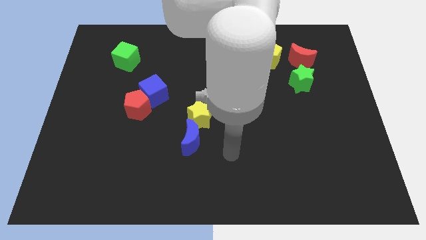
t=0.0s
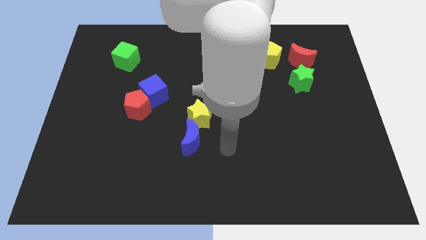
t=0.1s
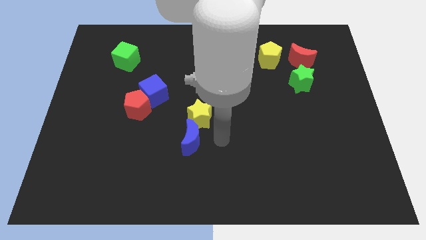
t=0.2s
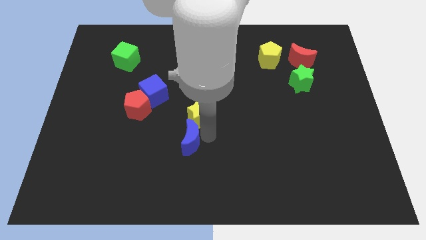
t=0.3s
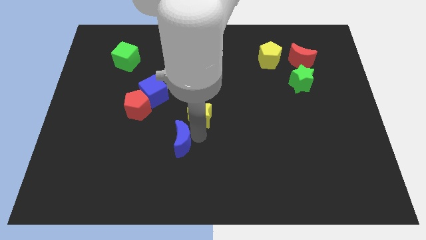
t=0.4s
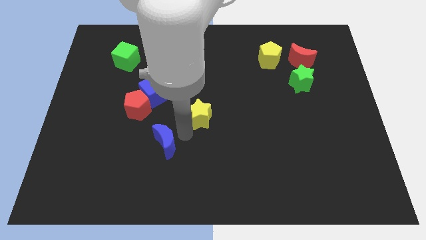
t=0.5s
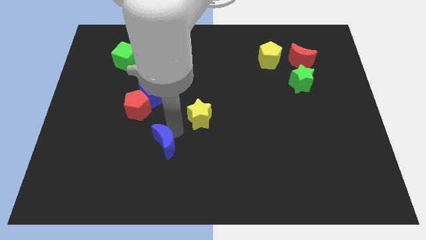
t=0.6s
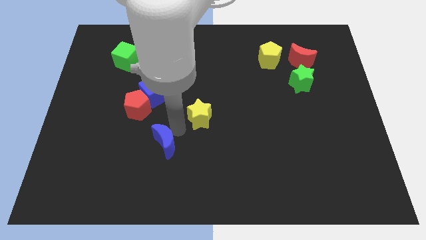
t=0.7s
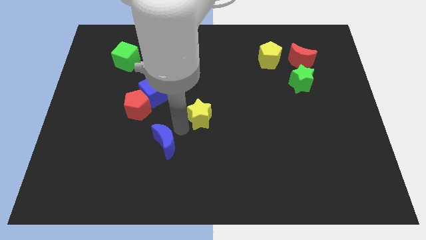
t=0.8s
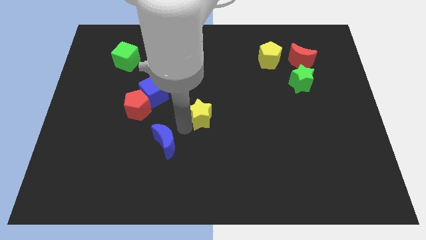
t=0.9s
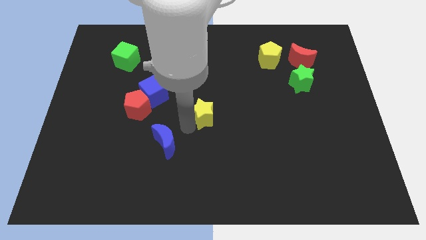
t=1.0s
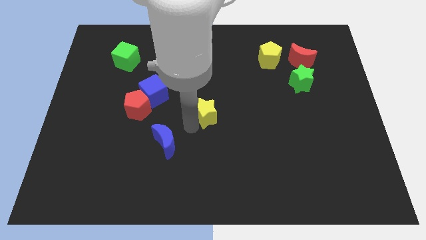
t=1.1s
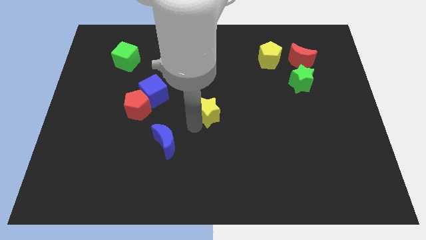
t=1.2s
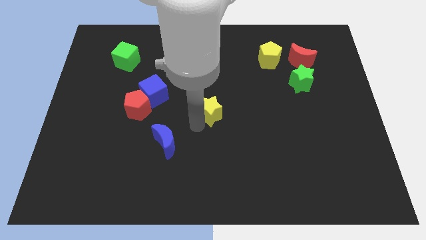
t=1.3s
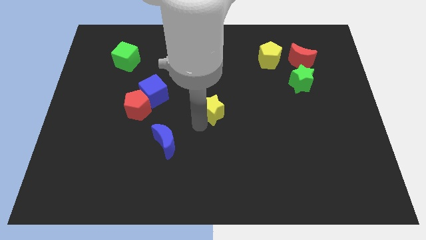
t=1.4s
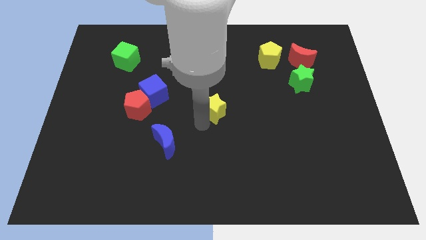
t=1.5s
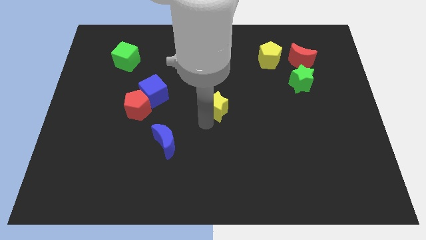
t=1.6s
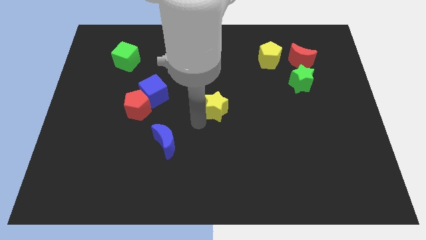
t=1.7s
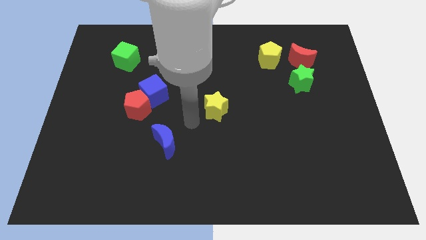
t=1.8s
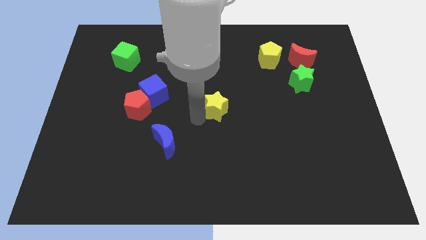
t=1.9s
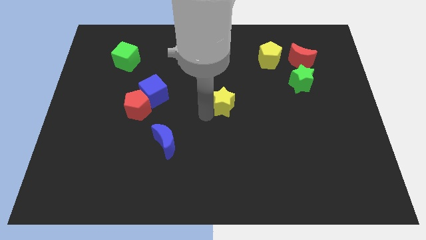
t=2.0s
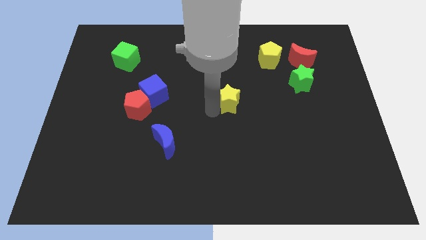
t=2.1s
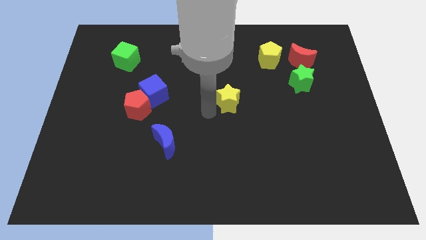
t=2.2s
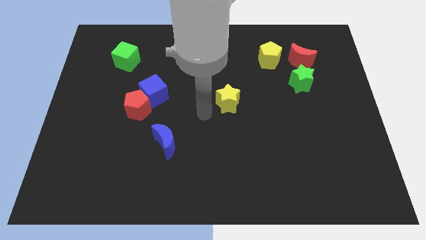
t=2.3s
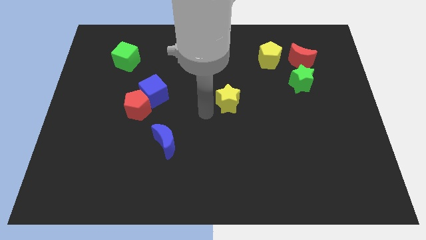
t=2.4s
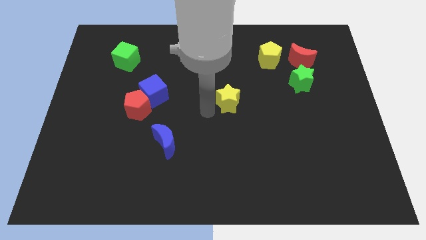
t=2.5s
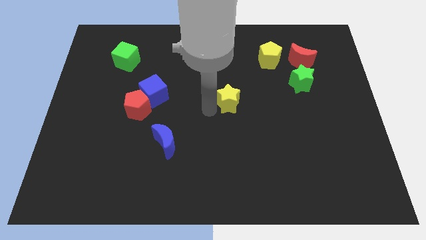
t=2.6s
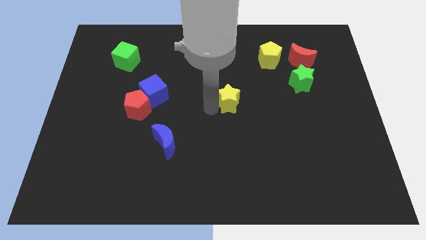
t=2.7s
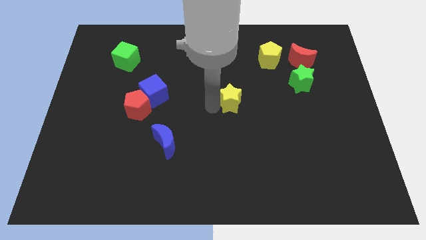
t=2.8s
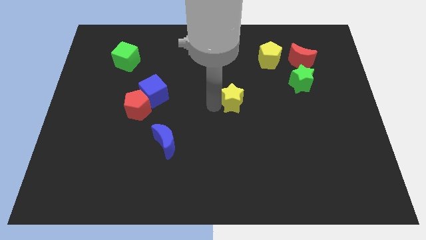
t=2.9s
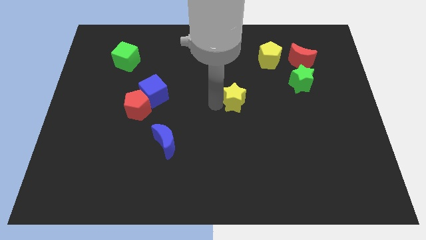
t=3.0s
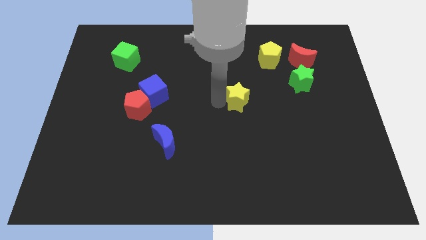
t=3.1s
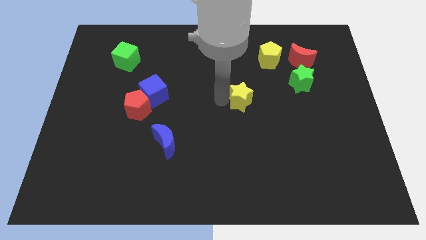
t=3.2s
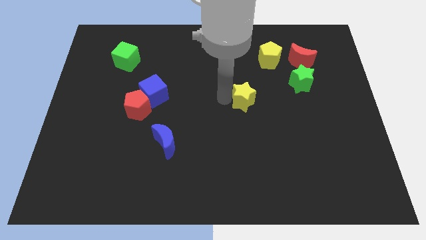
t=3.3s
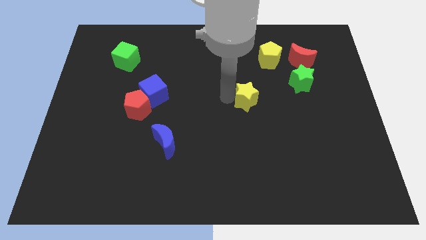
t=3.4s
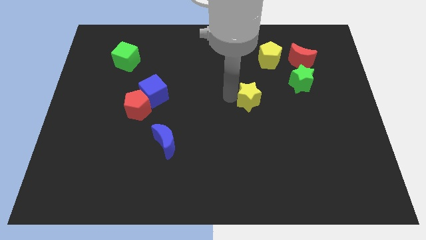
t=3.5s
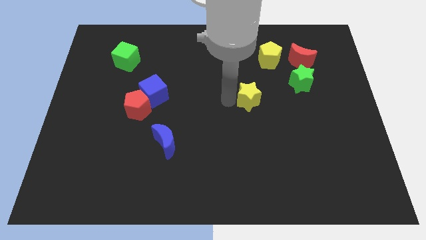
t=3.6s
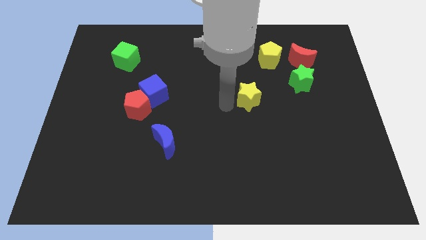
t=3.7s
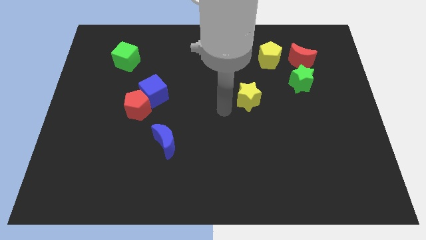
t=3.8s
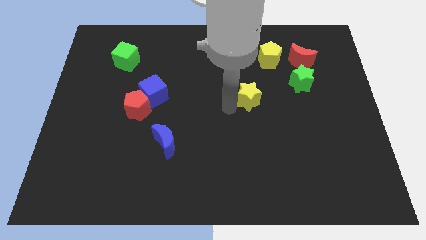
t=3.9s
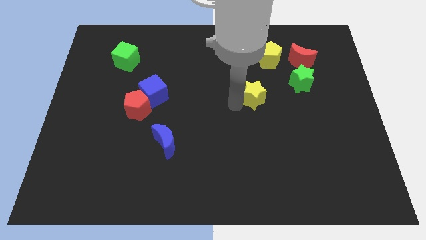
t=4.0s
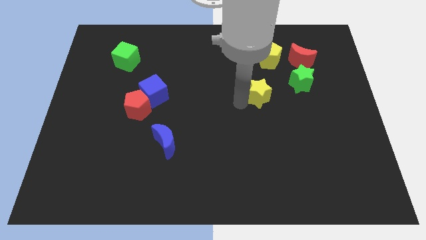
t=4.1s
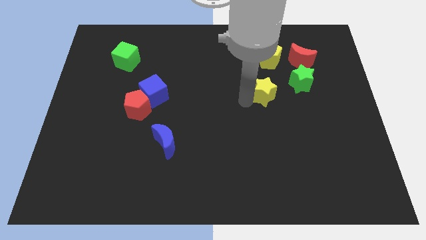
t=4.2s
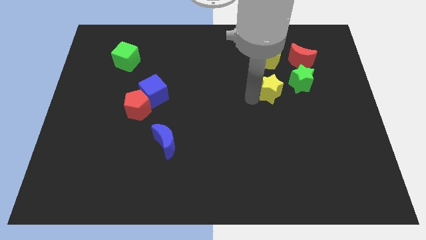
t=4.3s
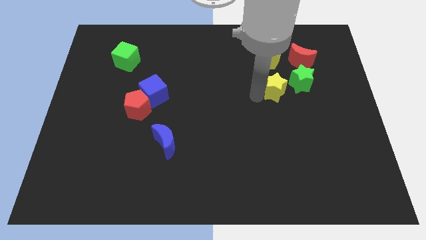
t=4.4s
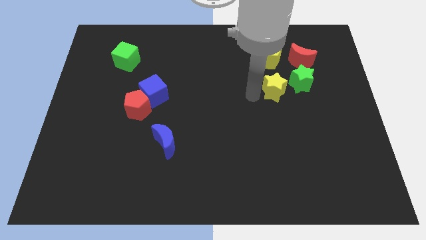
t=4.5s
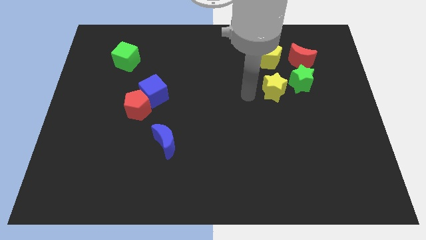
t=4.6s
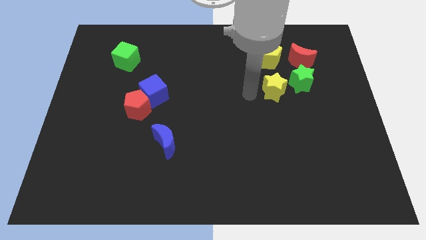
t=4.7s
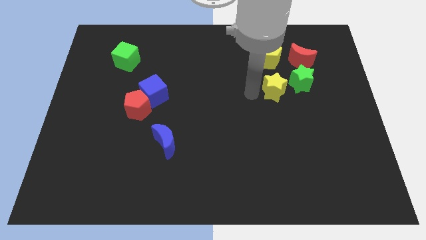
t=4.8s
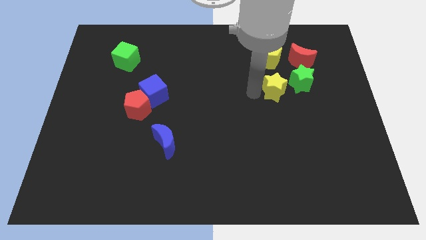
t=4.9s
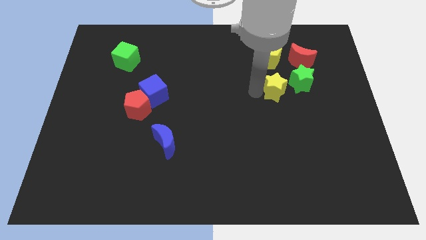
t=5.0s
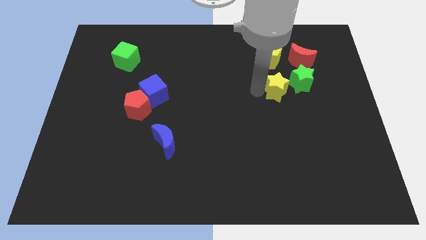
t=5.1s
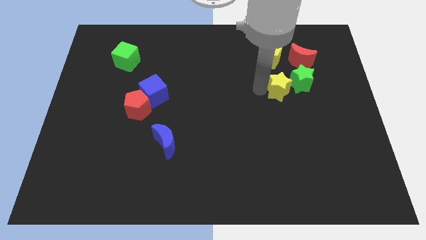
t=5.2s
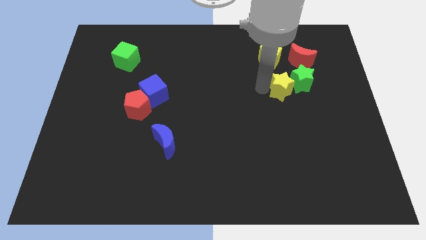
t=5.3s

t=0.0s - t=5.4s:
push the yellow star towards the green star

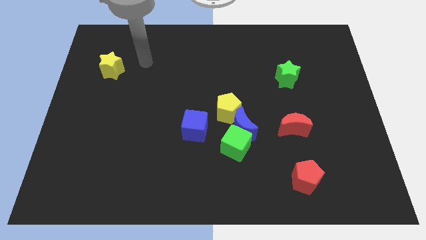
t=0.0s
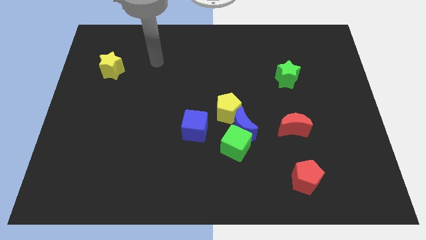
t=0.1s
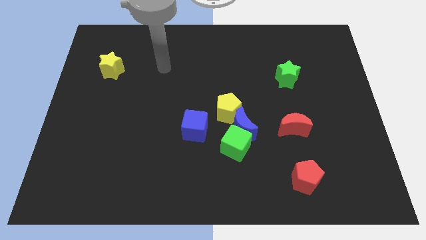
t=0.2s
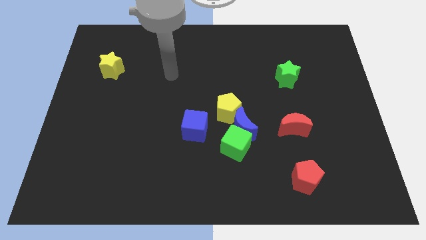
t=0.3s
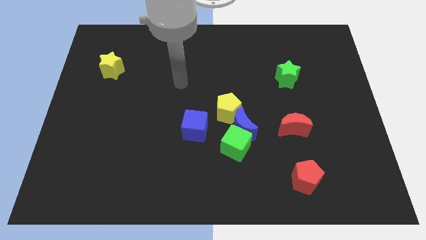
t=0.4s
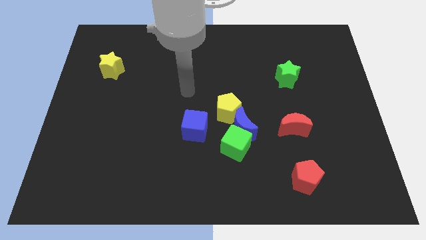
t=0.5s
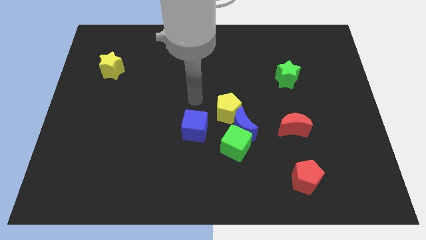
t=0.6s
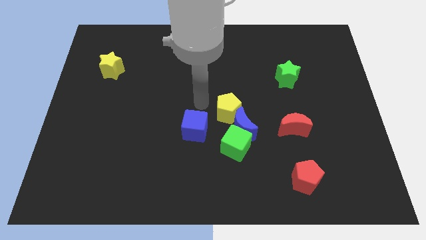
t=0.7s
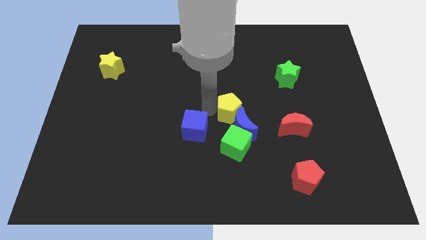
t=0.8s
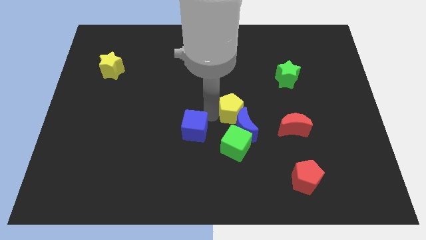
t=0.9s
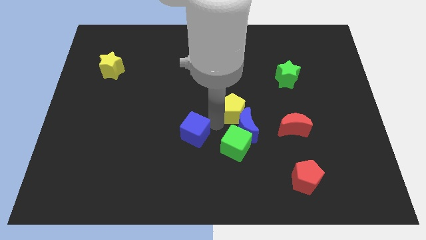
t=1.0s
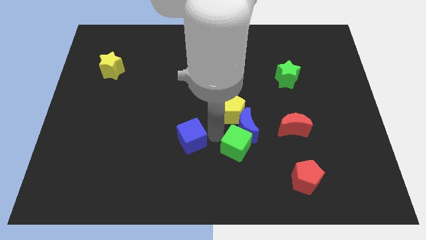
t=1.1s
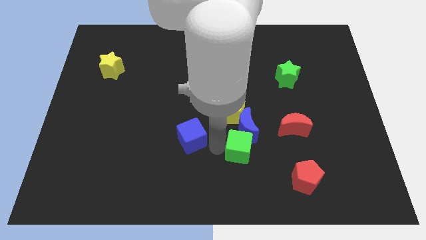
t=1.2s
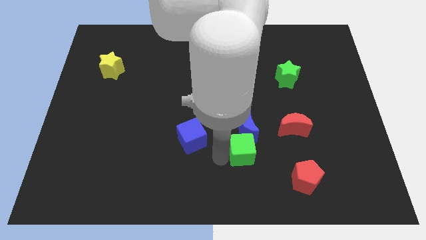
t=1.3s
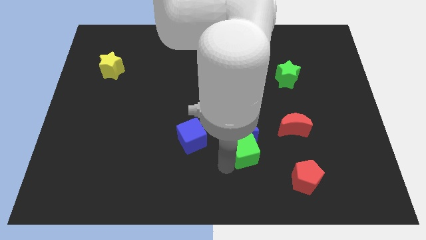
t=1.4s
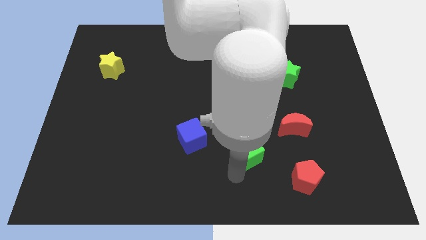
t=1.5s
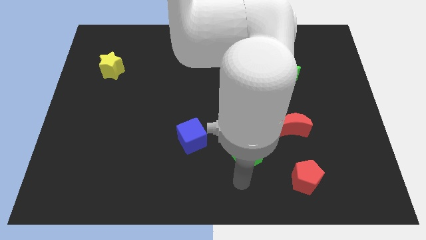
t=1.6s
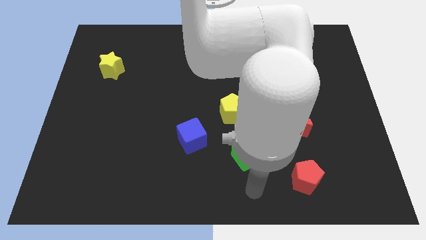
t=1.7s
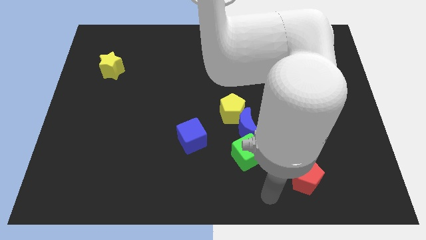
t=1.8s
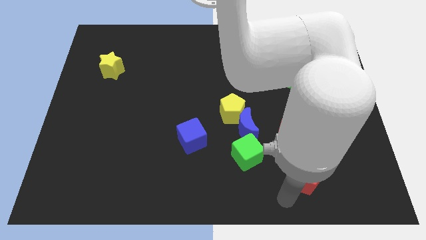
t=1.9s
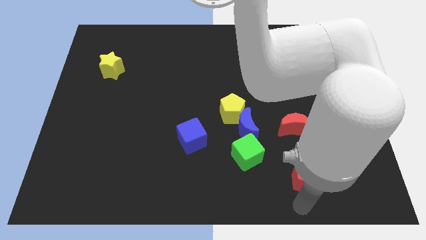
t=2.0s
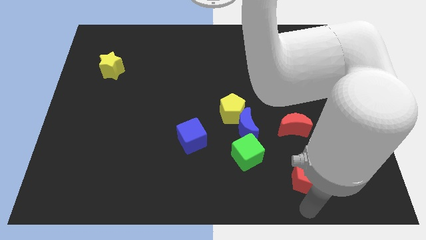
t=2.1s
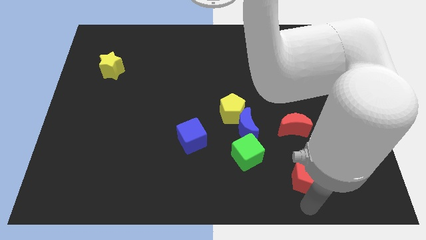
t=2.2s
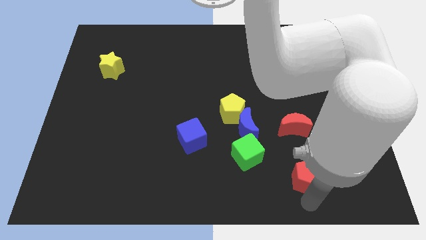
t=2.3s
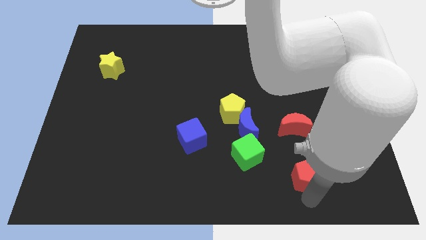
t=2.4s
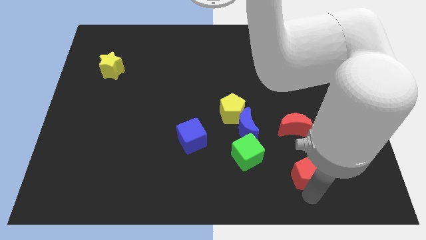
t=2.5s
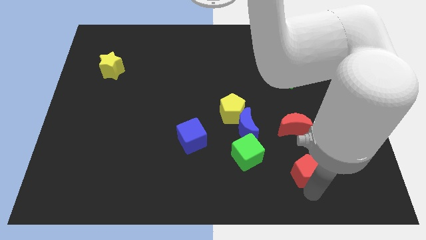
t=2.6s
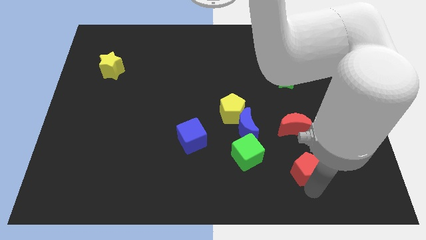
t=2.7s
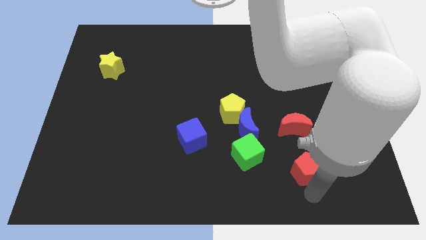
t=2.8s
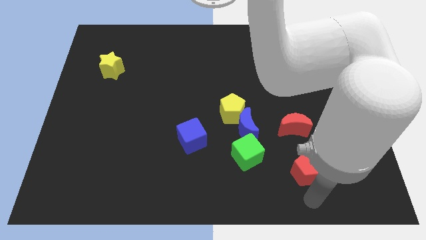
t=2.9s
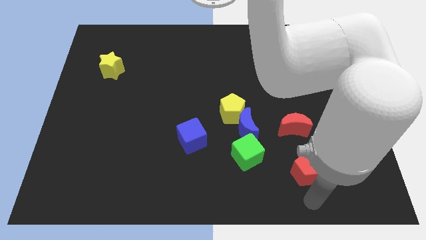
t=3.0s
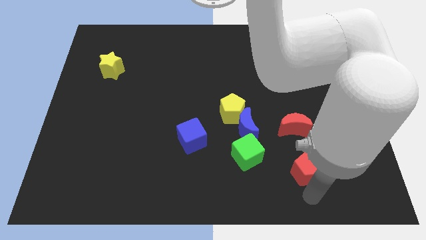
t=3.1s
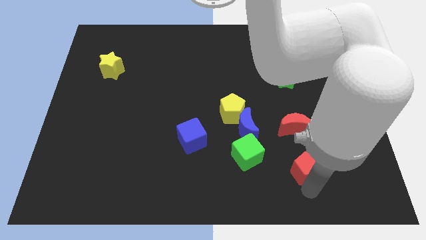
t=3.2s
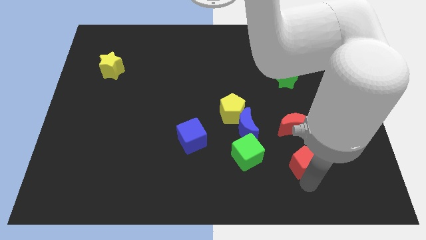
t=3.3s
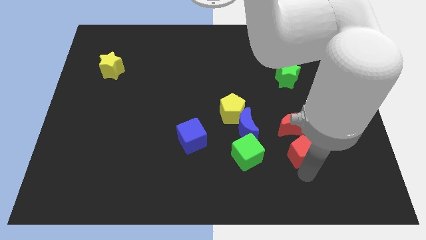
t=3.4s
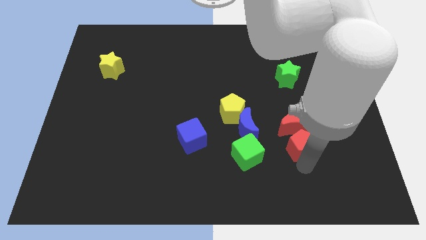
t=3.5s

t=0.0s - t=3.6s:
move the red pentagon to the red moon
